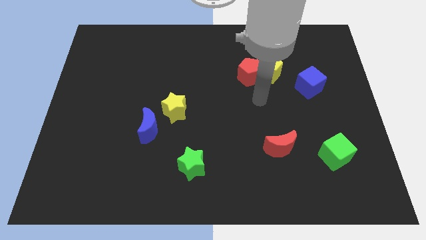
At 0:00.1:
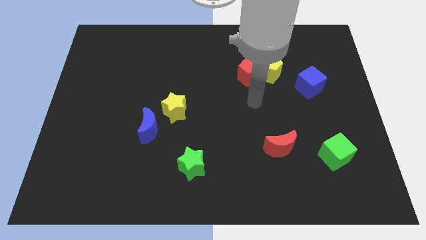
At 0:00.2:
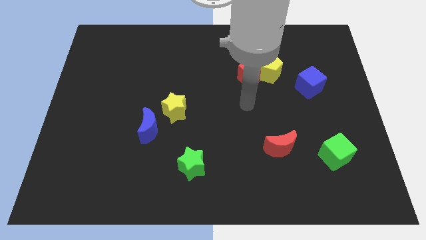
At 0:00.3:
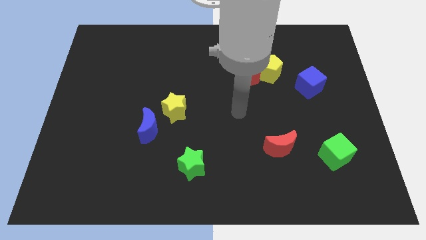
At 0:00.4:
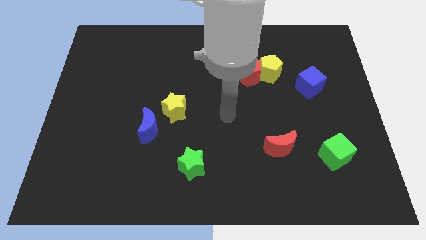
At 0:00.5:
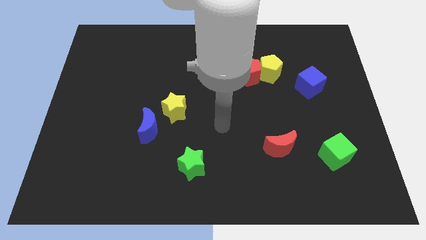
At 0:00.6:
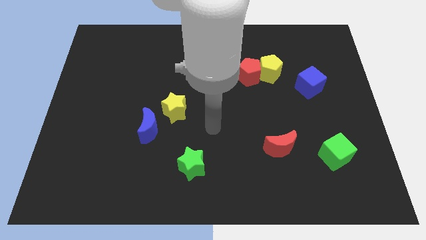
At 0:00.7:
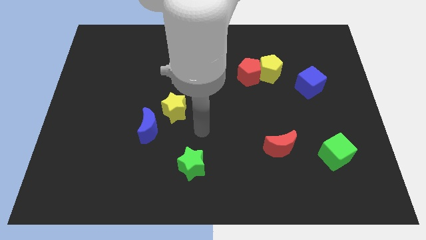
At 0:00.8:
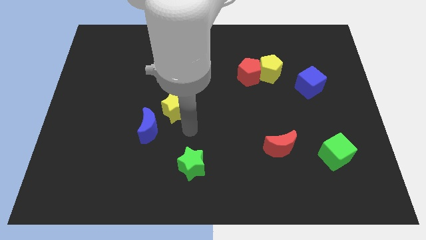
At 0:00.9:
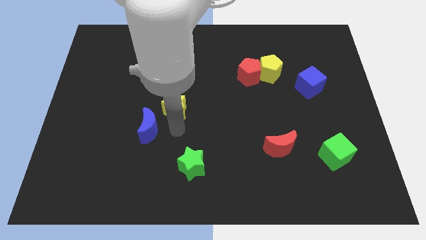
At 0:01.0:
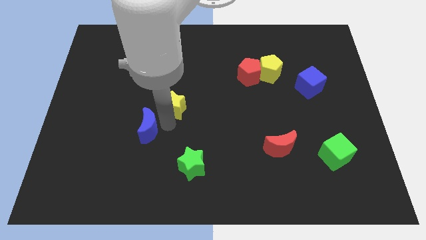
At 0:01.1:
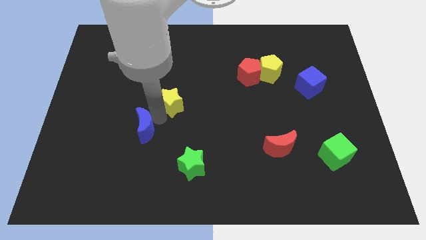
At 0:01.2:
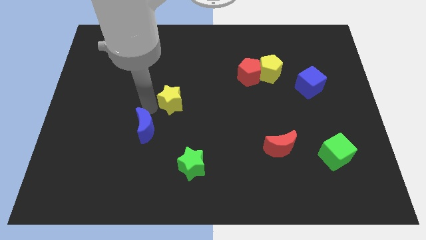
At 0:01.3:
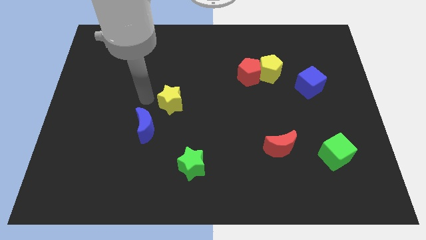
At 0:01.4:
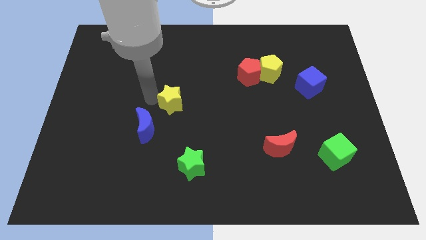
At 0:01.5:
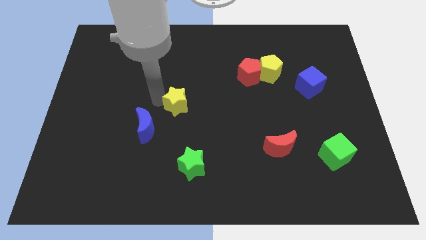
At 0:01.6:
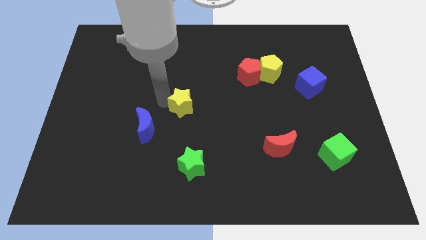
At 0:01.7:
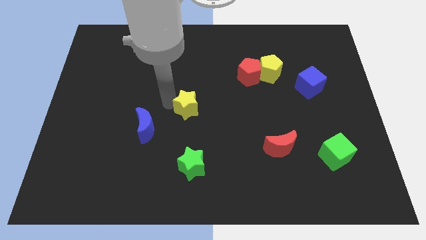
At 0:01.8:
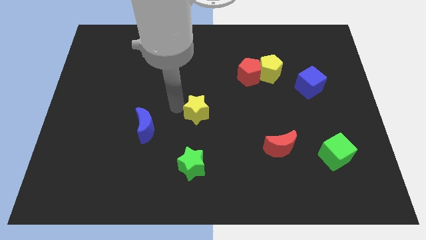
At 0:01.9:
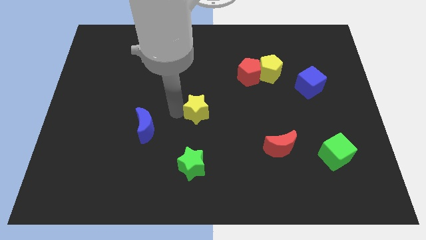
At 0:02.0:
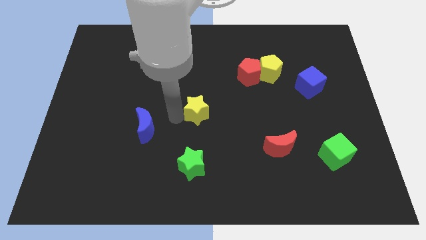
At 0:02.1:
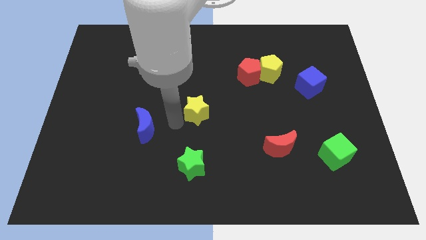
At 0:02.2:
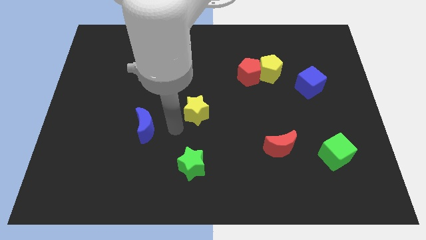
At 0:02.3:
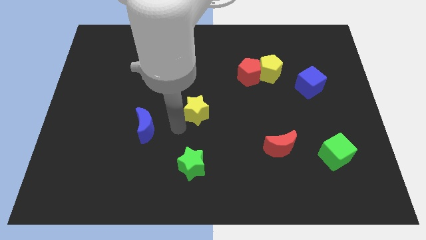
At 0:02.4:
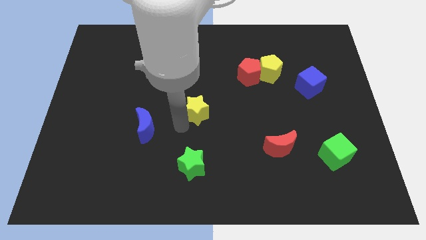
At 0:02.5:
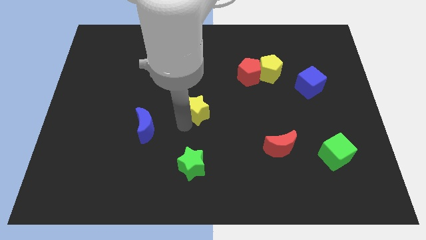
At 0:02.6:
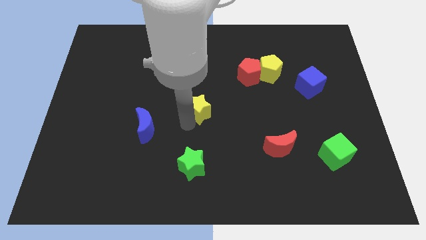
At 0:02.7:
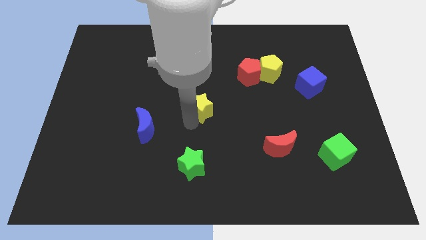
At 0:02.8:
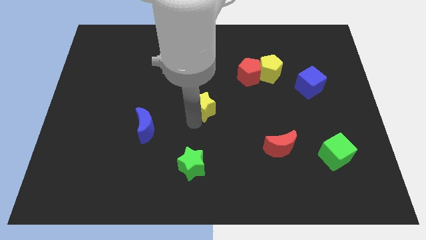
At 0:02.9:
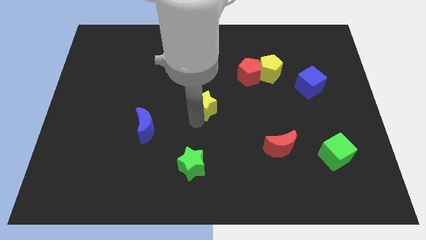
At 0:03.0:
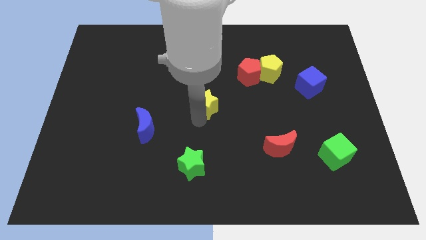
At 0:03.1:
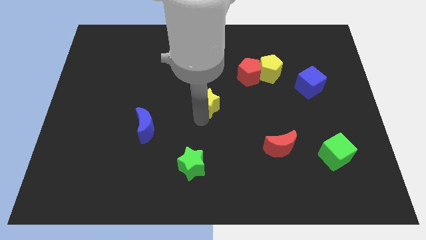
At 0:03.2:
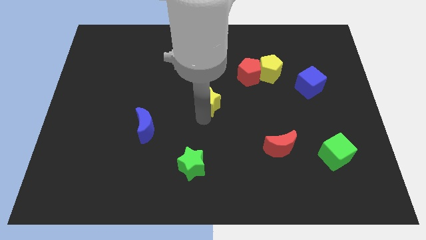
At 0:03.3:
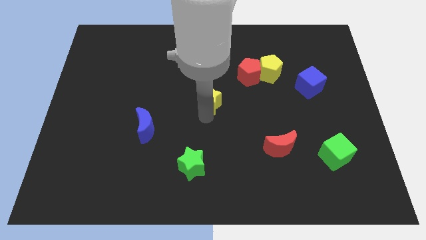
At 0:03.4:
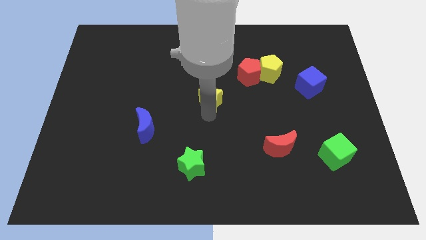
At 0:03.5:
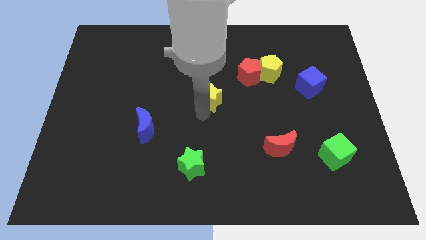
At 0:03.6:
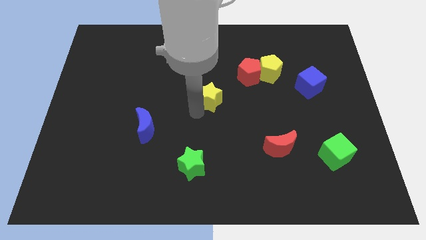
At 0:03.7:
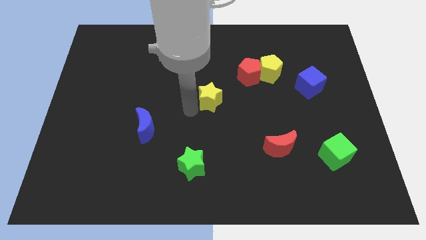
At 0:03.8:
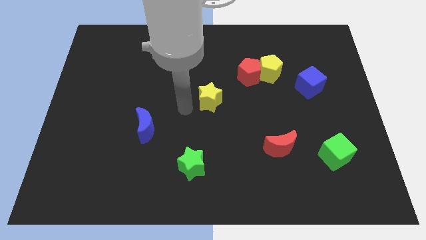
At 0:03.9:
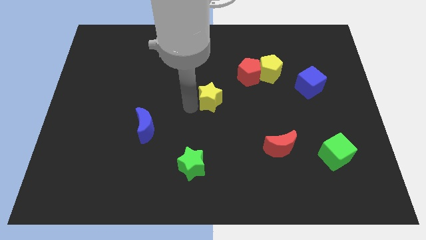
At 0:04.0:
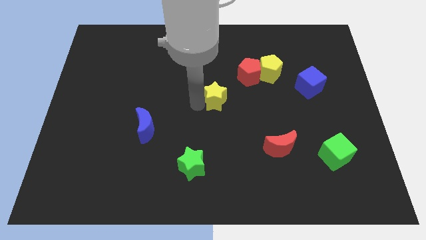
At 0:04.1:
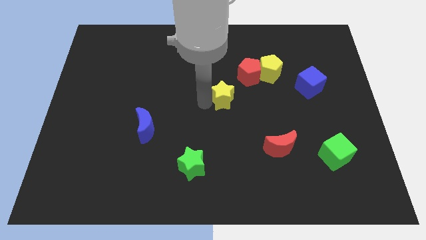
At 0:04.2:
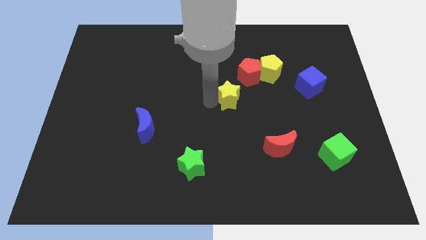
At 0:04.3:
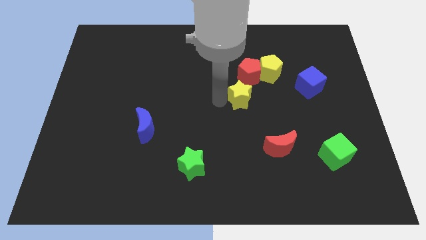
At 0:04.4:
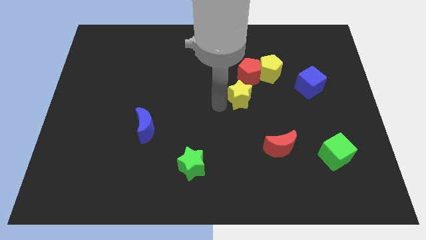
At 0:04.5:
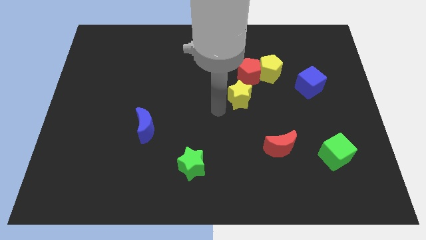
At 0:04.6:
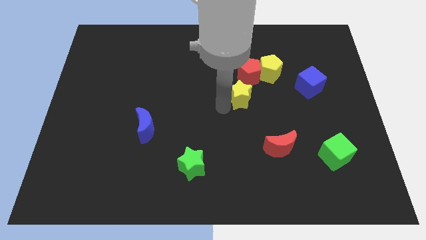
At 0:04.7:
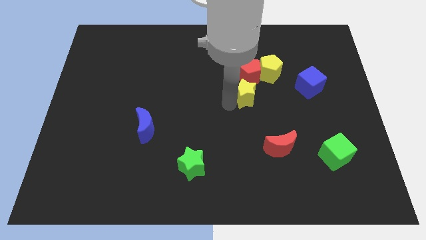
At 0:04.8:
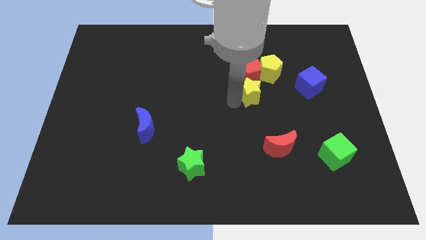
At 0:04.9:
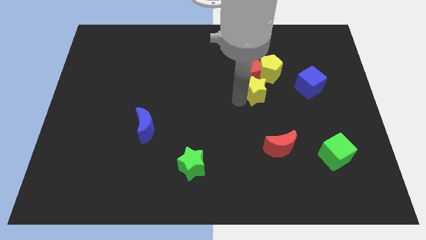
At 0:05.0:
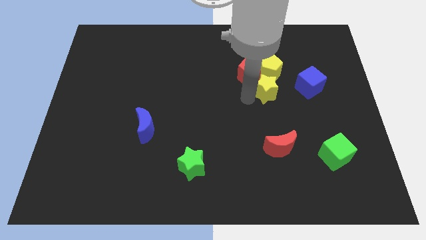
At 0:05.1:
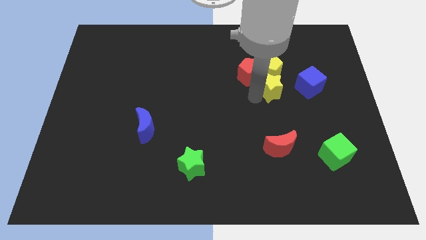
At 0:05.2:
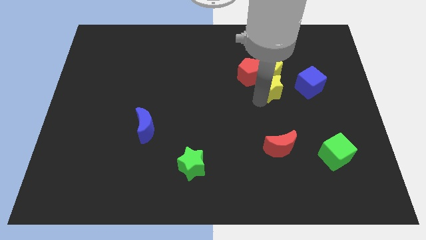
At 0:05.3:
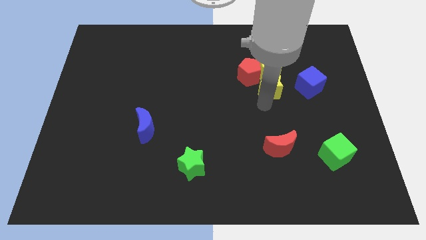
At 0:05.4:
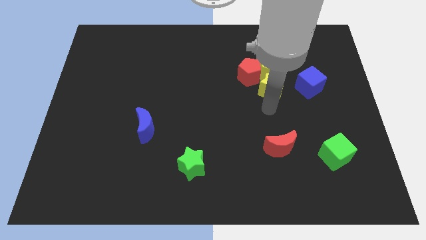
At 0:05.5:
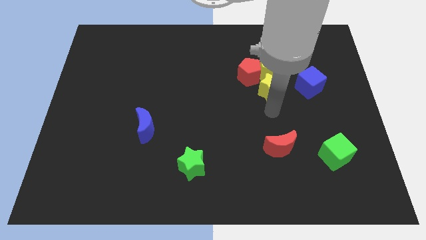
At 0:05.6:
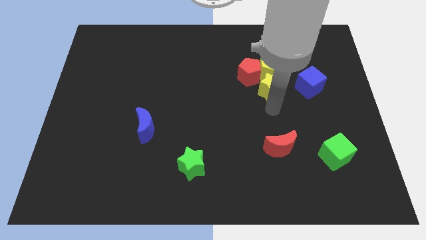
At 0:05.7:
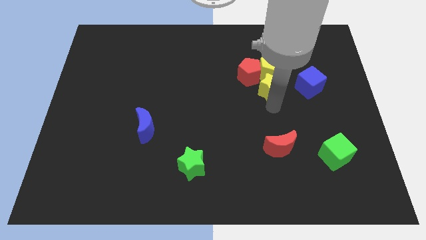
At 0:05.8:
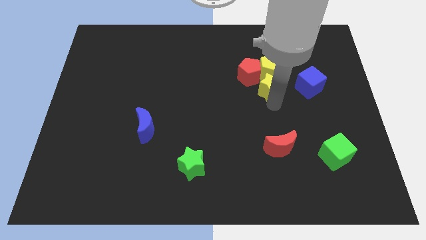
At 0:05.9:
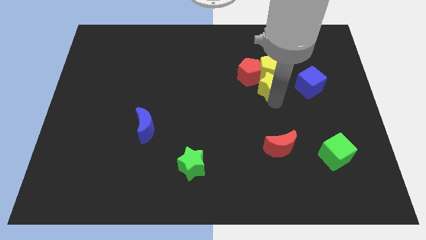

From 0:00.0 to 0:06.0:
put the yellow star next to the yellow pentagon

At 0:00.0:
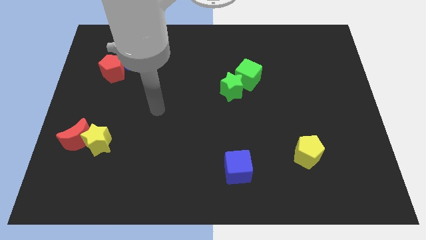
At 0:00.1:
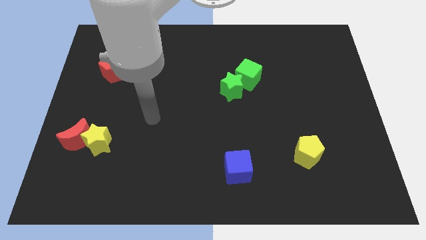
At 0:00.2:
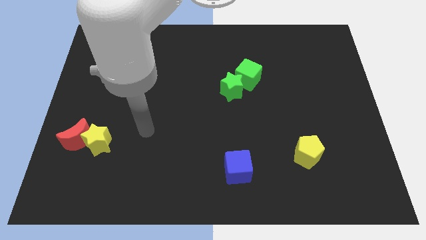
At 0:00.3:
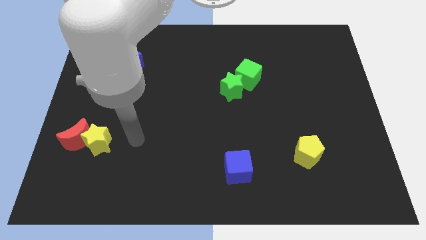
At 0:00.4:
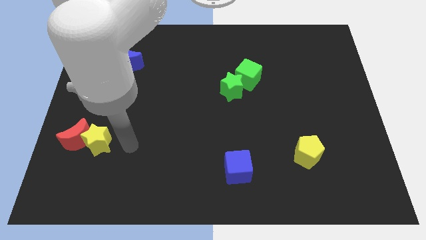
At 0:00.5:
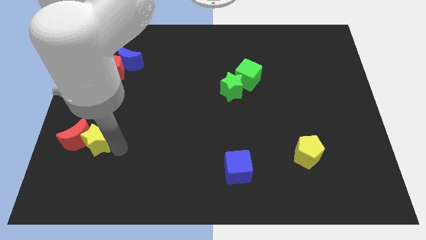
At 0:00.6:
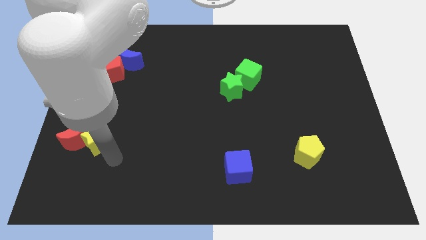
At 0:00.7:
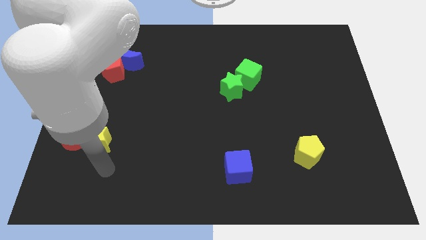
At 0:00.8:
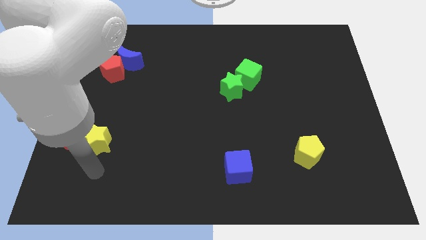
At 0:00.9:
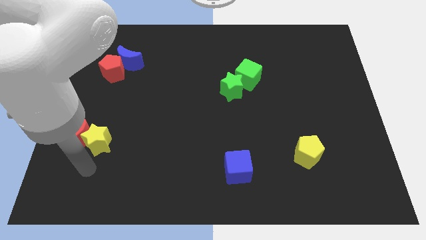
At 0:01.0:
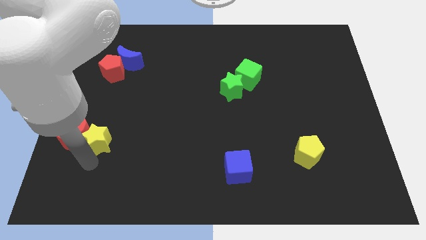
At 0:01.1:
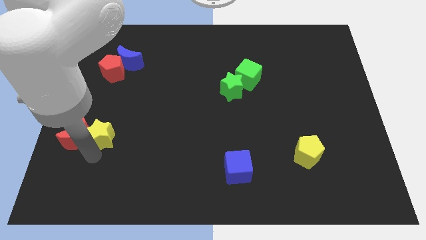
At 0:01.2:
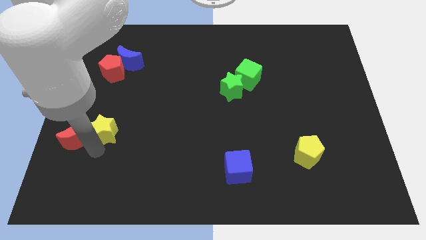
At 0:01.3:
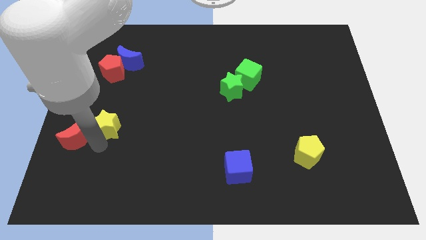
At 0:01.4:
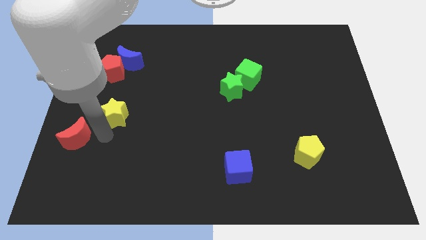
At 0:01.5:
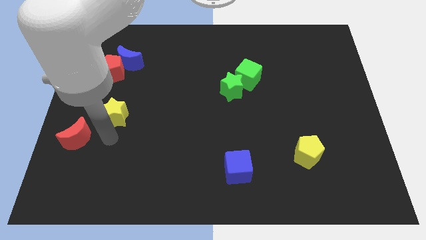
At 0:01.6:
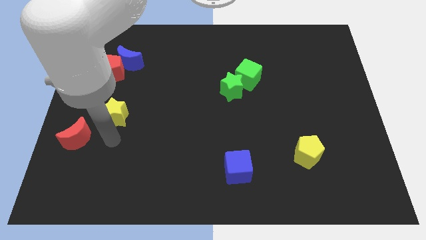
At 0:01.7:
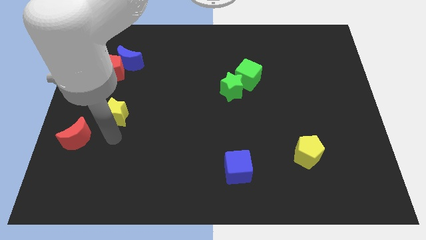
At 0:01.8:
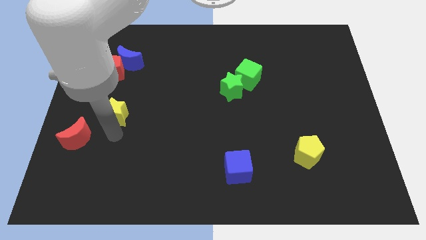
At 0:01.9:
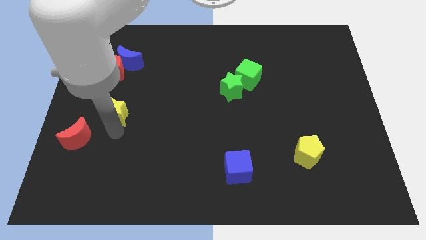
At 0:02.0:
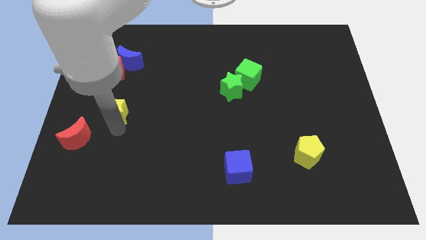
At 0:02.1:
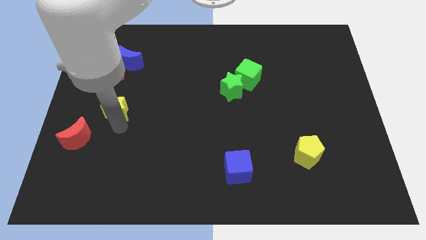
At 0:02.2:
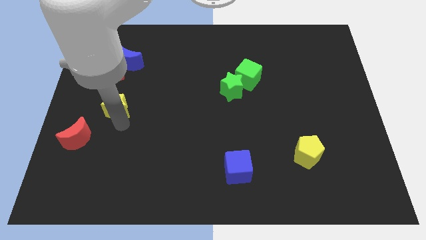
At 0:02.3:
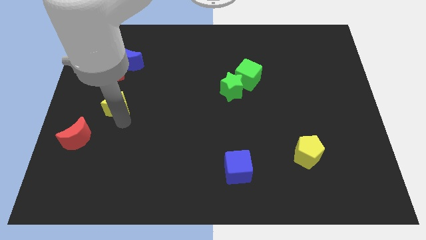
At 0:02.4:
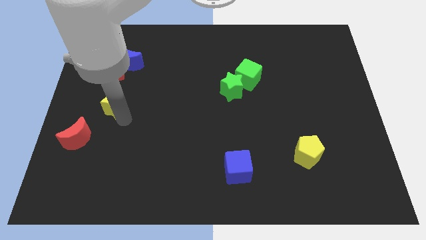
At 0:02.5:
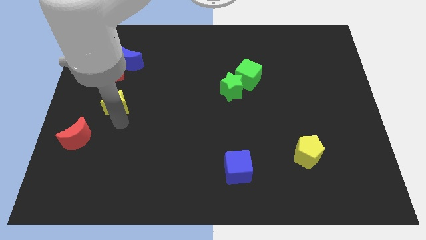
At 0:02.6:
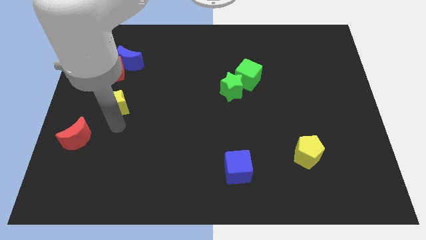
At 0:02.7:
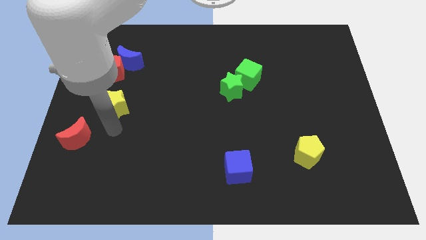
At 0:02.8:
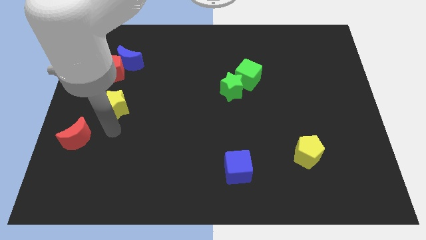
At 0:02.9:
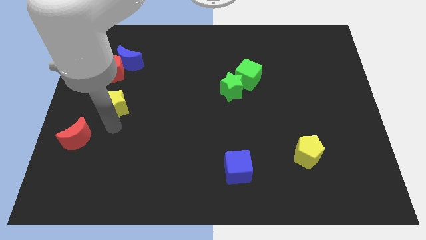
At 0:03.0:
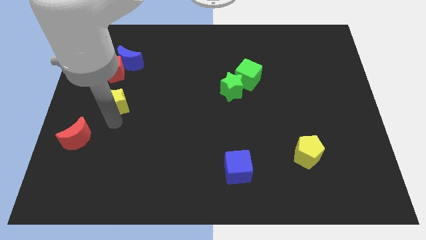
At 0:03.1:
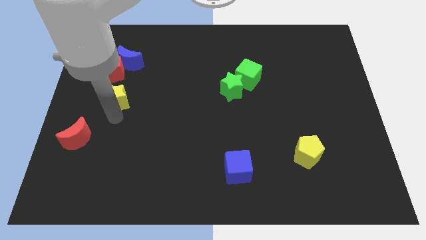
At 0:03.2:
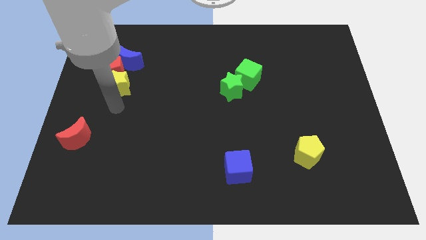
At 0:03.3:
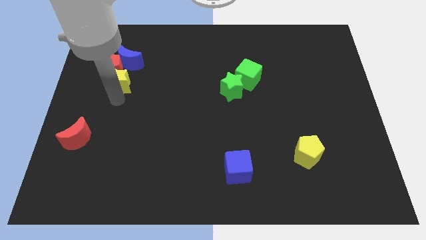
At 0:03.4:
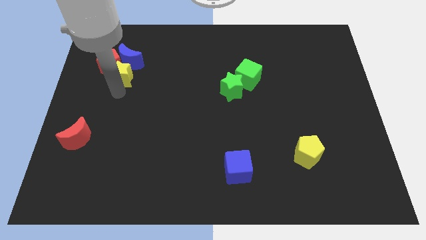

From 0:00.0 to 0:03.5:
put the yellow star next to the blue moon
